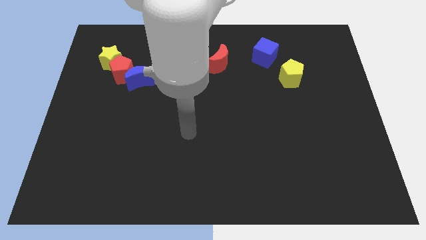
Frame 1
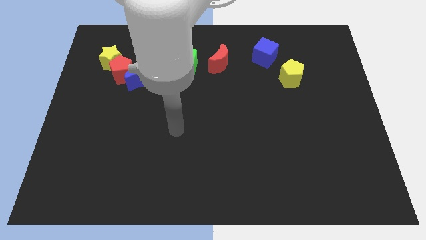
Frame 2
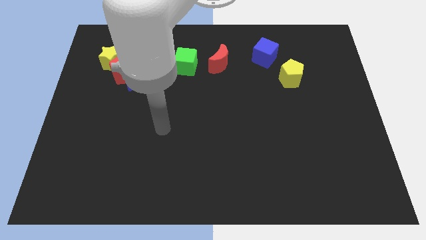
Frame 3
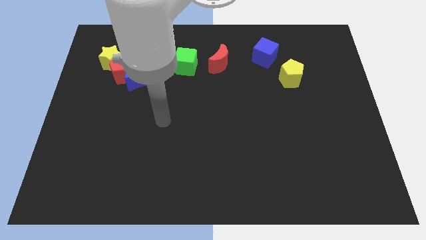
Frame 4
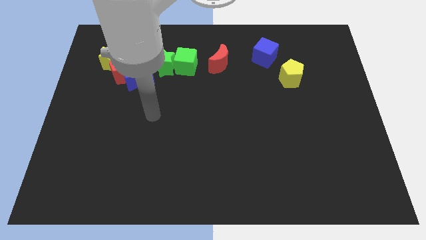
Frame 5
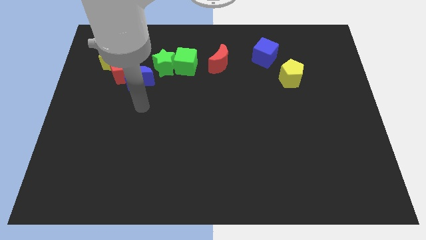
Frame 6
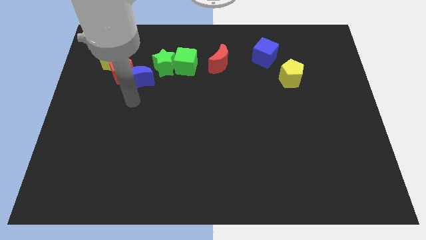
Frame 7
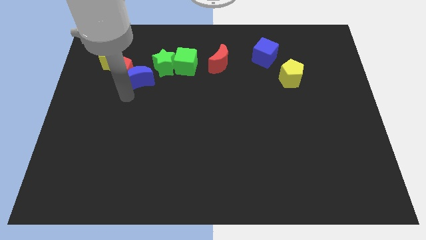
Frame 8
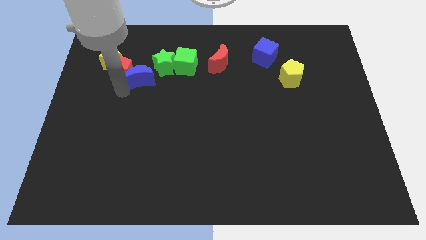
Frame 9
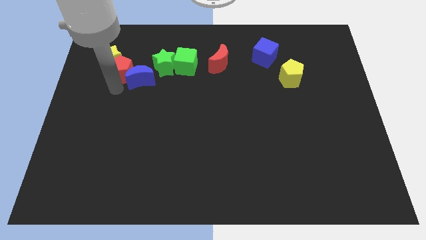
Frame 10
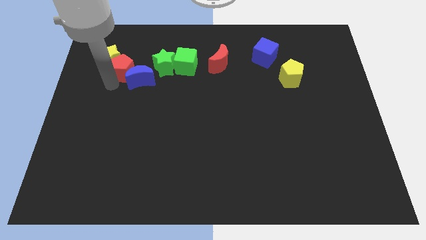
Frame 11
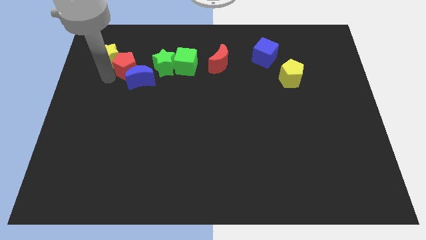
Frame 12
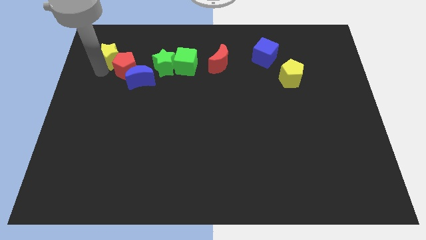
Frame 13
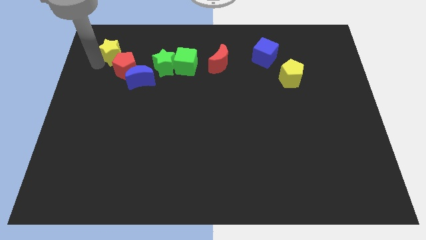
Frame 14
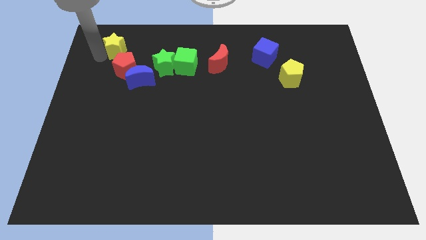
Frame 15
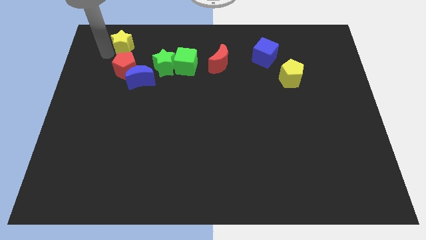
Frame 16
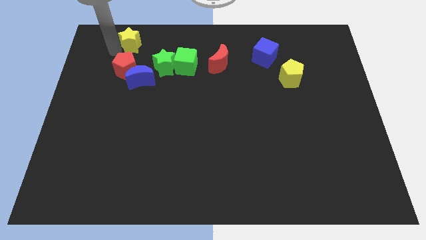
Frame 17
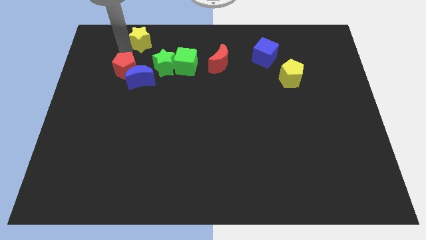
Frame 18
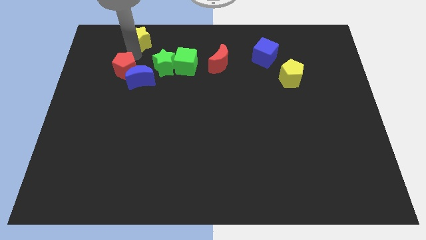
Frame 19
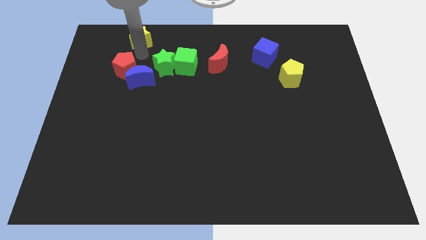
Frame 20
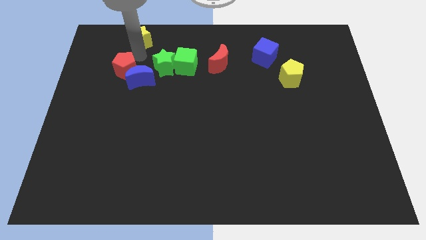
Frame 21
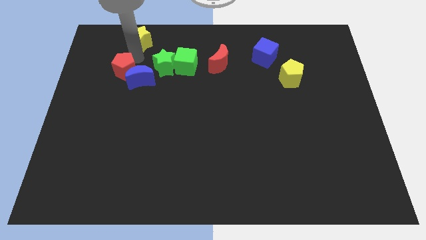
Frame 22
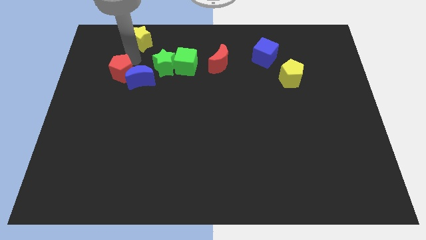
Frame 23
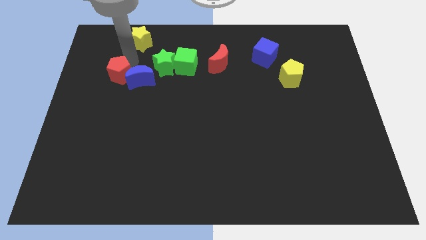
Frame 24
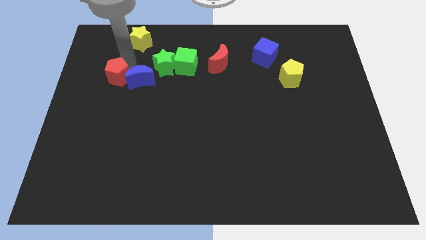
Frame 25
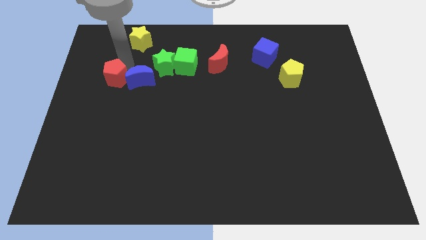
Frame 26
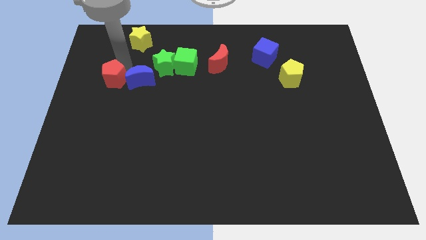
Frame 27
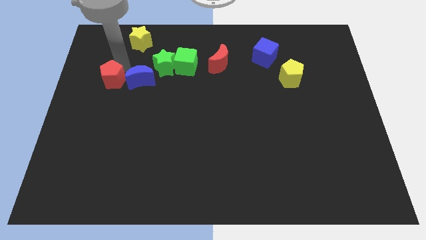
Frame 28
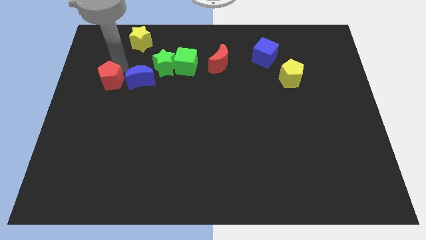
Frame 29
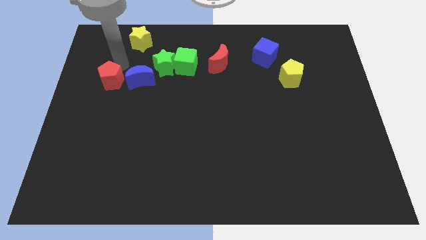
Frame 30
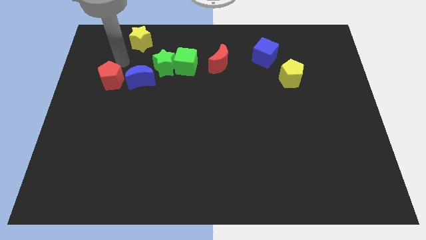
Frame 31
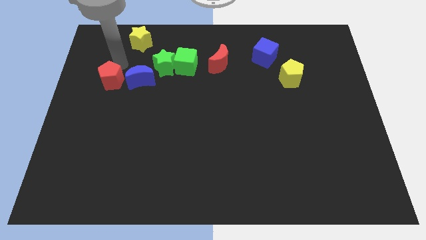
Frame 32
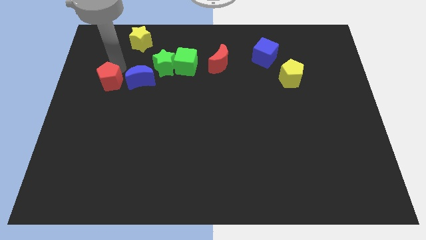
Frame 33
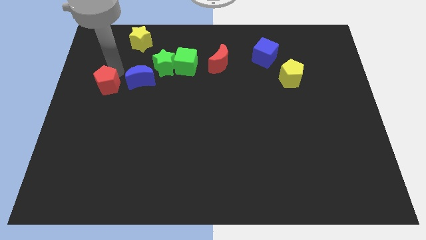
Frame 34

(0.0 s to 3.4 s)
move the red pentagon away from the blue moon and yellow star

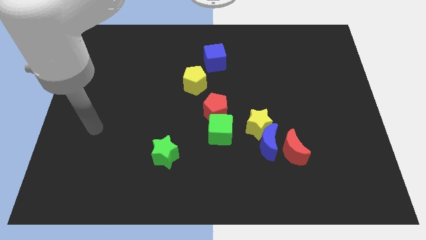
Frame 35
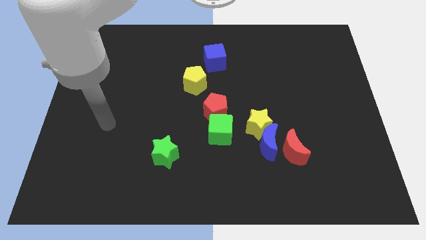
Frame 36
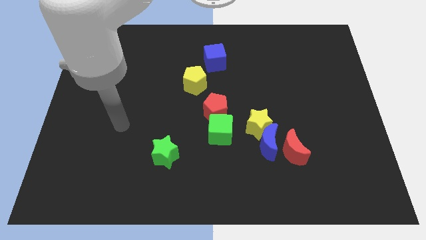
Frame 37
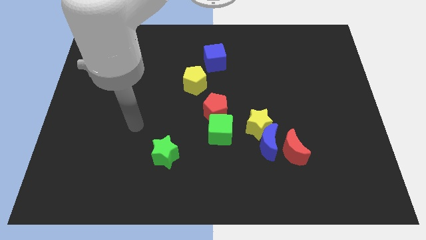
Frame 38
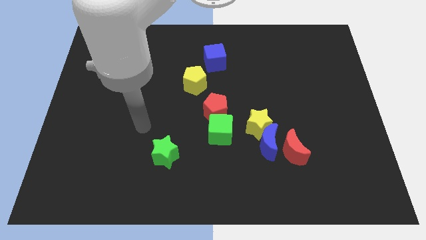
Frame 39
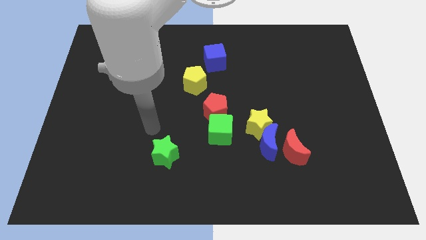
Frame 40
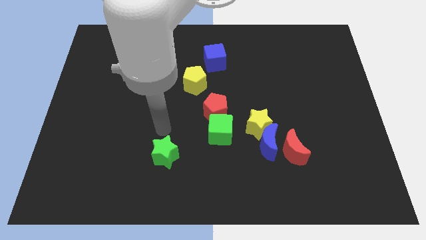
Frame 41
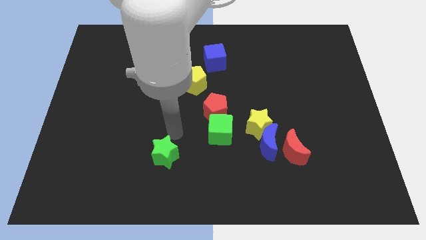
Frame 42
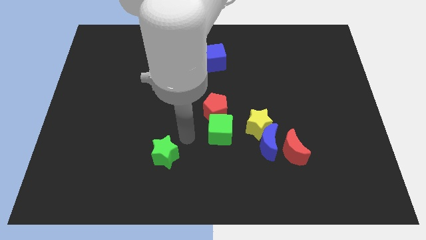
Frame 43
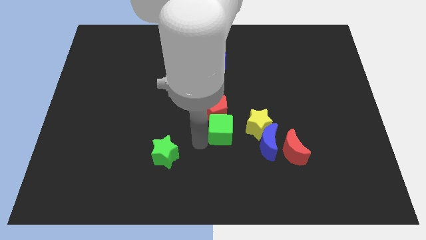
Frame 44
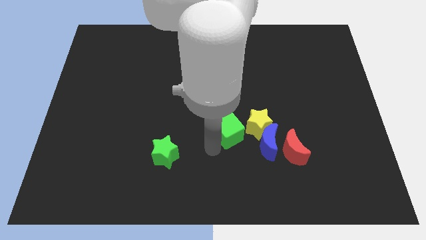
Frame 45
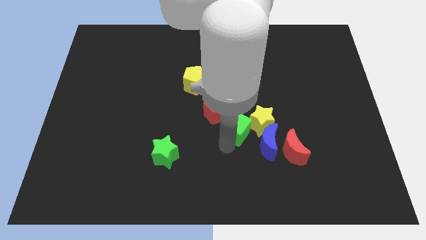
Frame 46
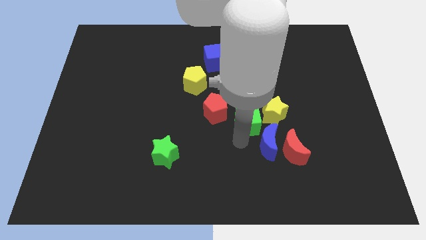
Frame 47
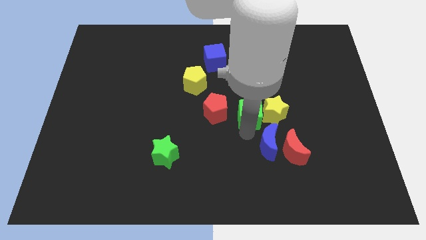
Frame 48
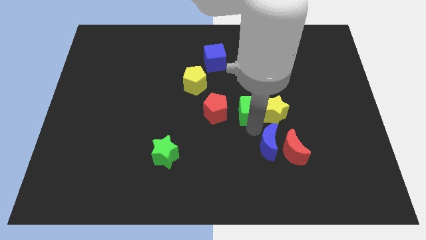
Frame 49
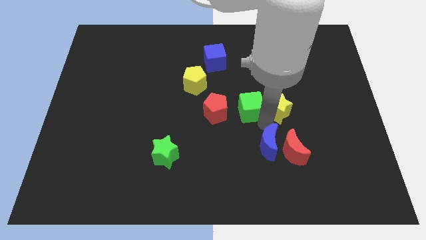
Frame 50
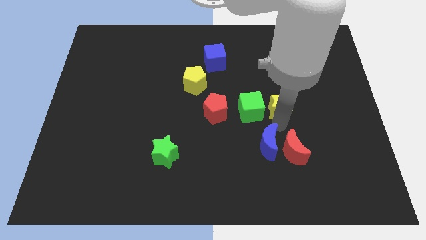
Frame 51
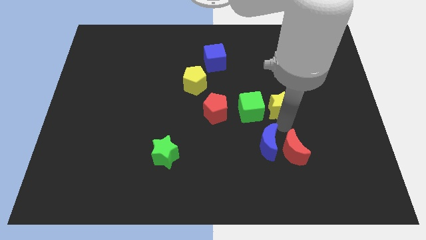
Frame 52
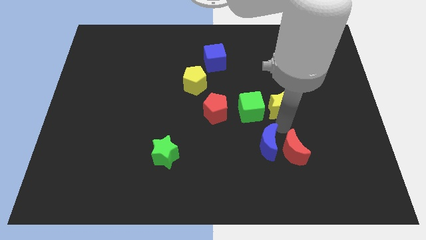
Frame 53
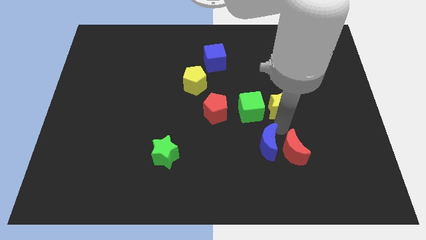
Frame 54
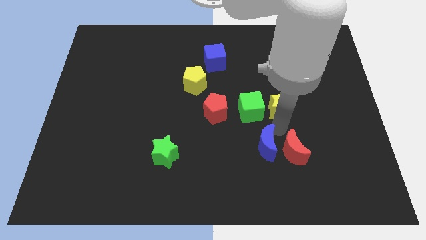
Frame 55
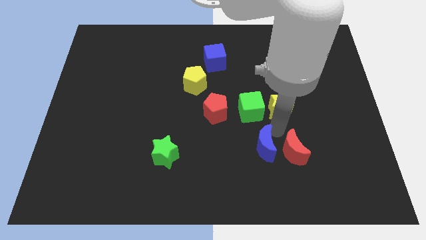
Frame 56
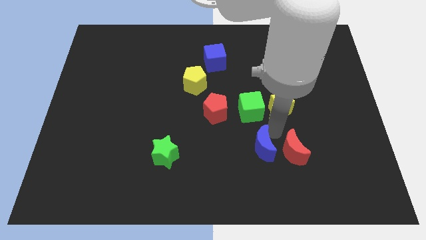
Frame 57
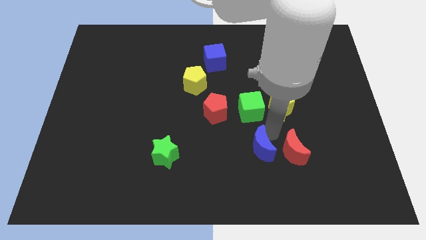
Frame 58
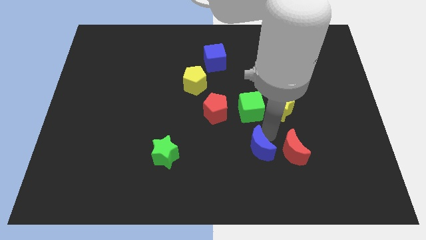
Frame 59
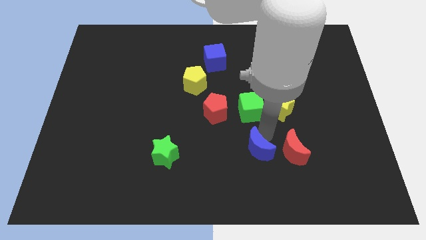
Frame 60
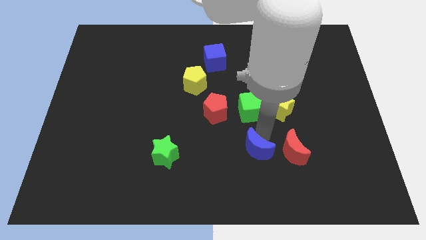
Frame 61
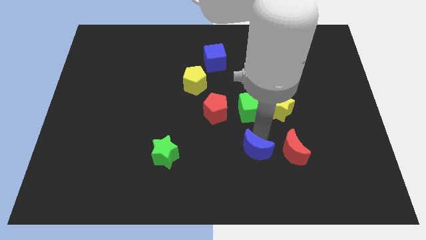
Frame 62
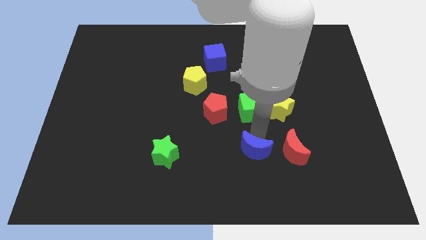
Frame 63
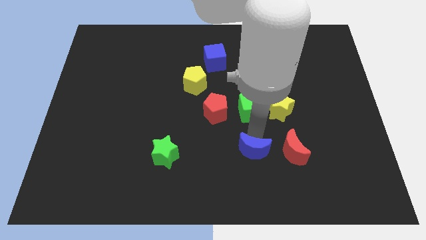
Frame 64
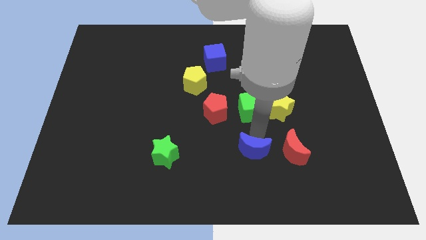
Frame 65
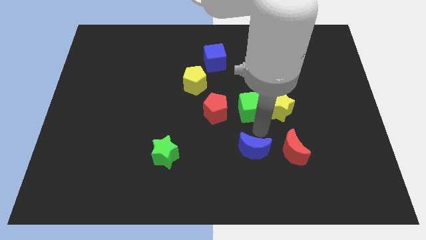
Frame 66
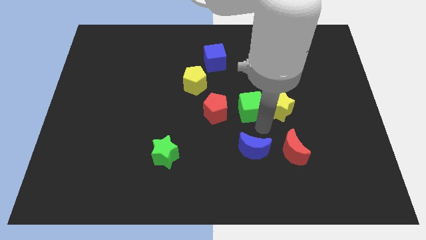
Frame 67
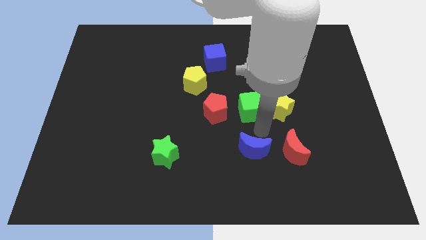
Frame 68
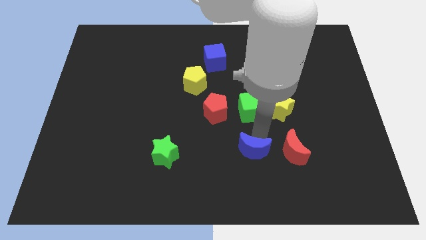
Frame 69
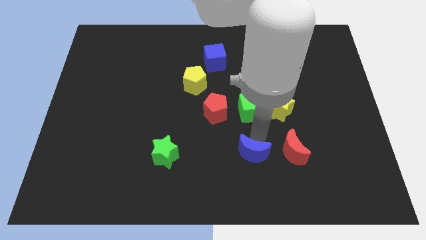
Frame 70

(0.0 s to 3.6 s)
move the blue moon away from the yellow star and red moon

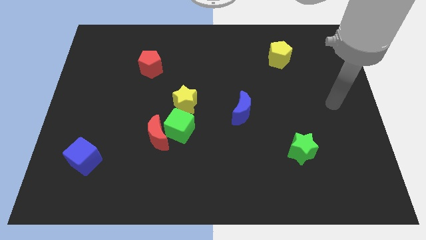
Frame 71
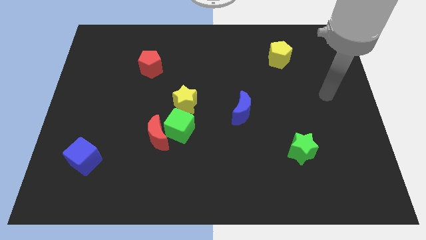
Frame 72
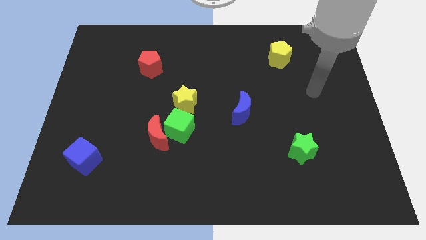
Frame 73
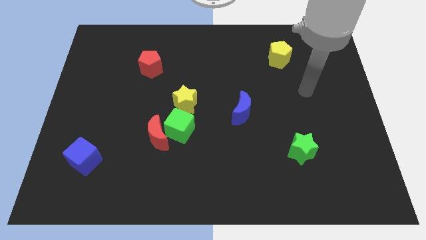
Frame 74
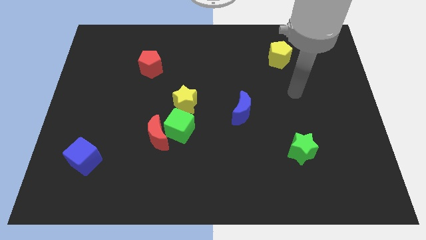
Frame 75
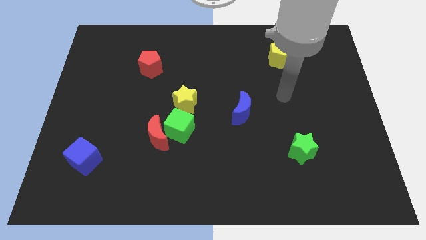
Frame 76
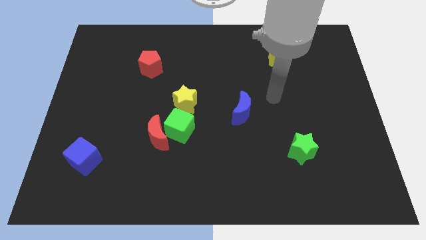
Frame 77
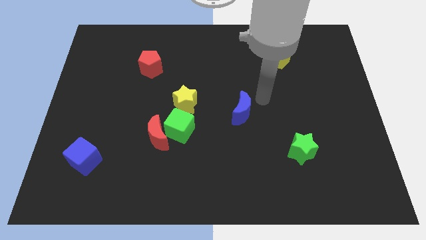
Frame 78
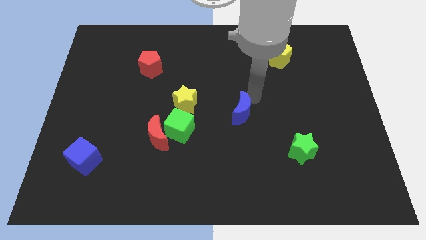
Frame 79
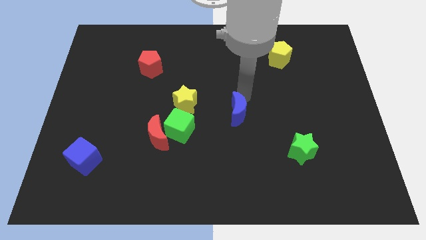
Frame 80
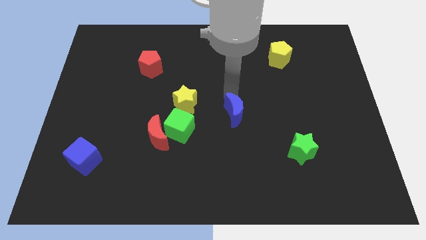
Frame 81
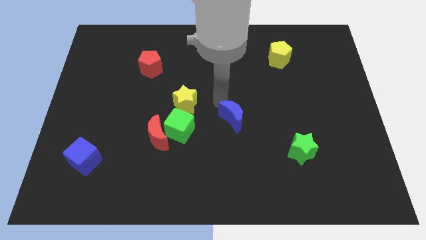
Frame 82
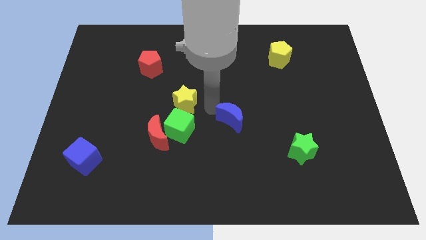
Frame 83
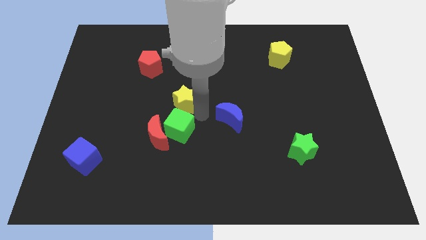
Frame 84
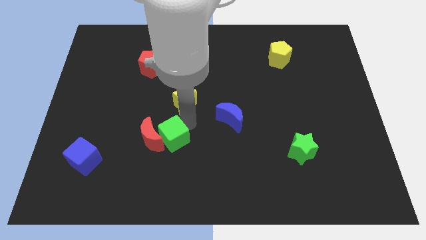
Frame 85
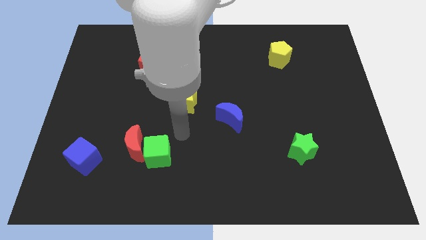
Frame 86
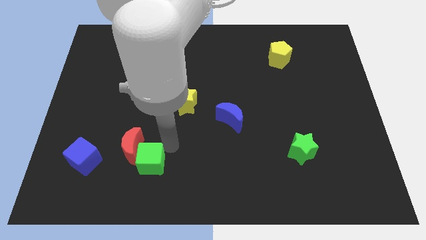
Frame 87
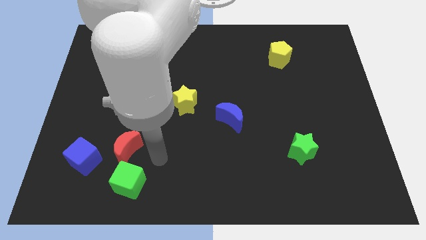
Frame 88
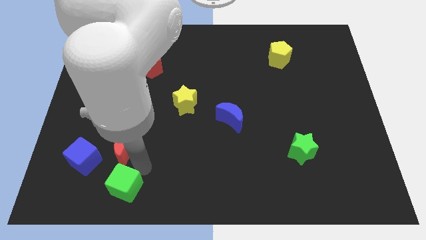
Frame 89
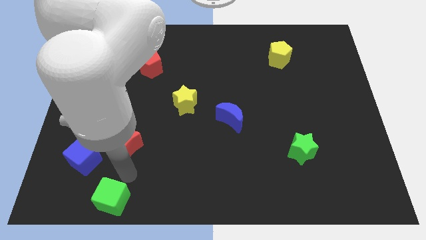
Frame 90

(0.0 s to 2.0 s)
separate the red moon from the green cube

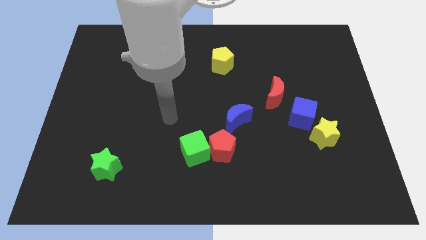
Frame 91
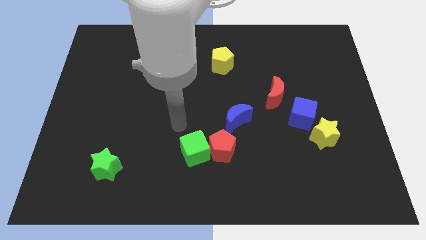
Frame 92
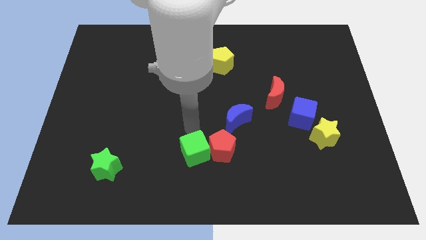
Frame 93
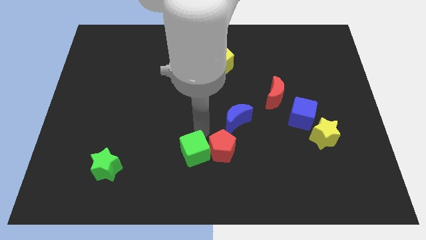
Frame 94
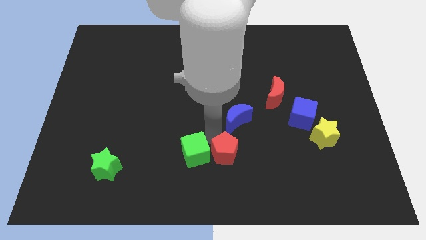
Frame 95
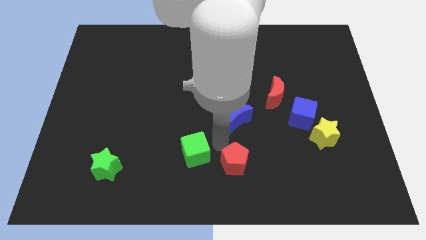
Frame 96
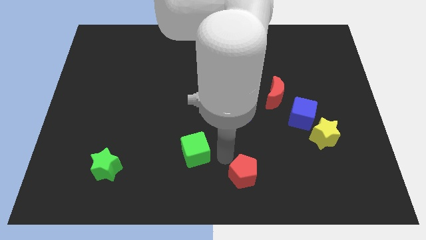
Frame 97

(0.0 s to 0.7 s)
separate the green cube from the red pentagon
